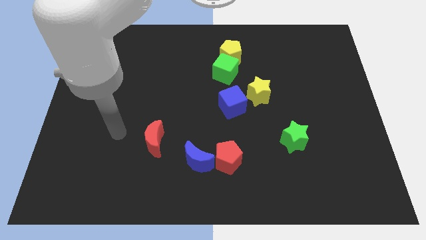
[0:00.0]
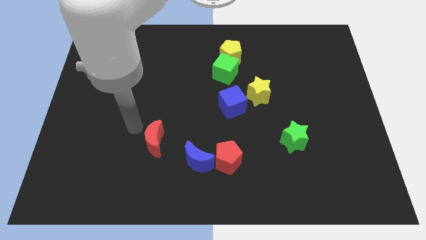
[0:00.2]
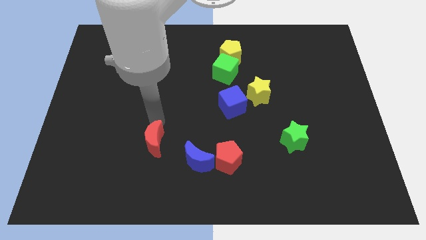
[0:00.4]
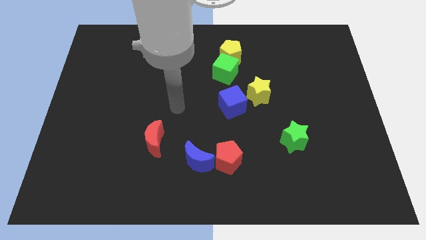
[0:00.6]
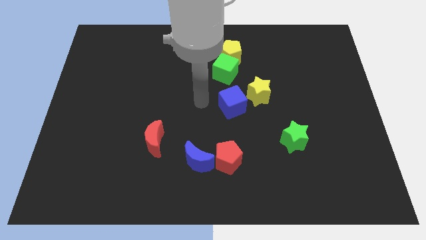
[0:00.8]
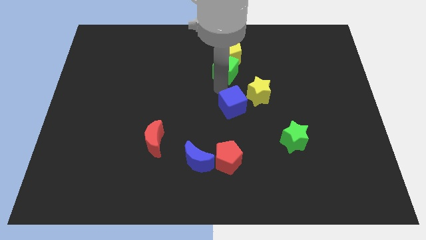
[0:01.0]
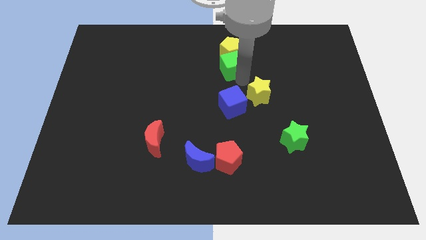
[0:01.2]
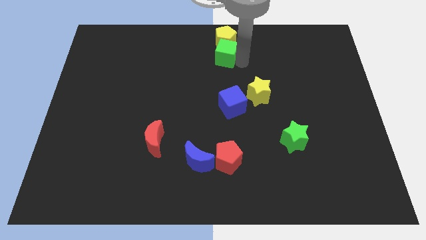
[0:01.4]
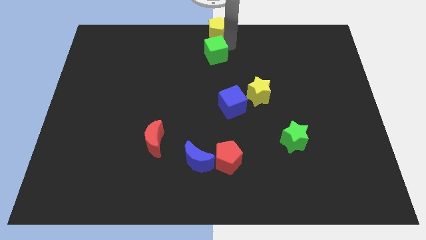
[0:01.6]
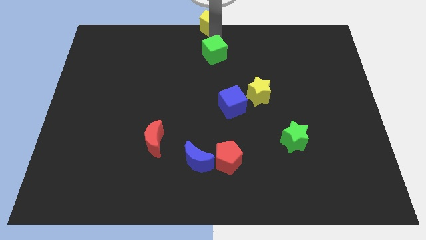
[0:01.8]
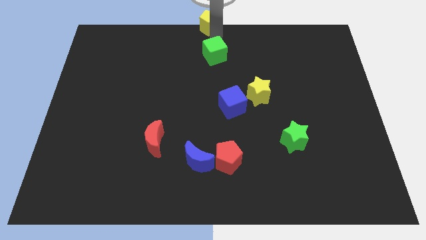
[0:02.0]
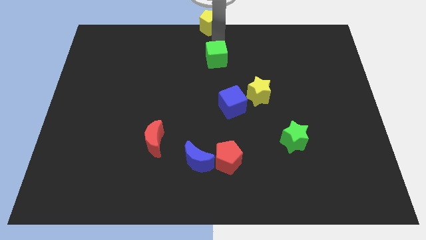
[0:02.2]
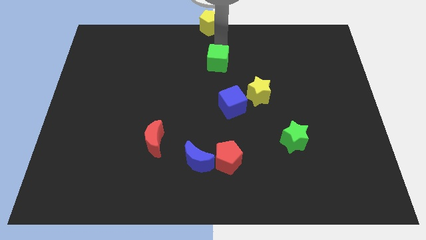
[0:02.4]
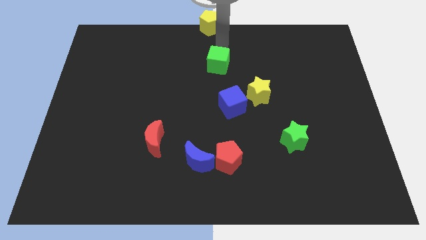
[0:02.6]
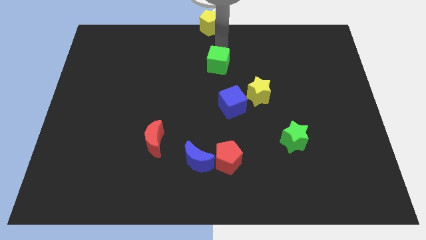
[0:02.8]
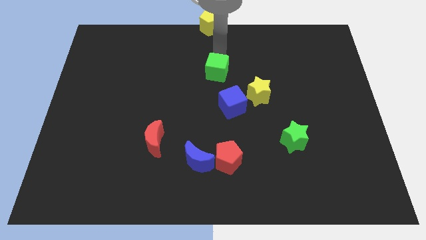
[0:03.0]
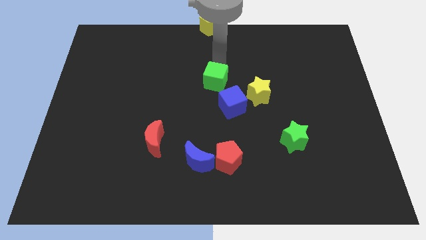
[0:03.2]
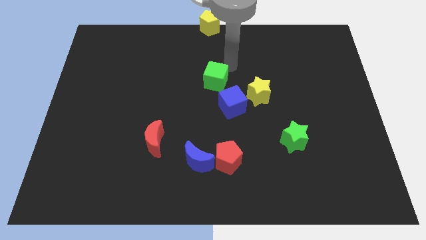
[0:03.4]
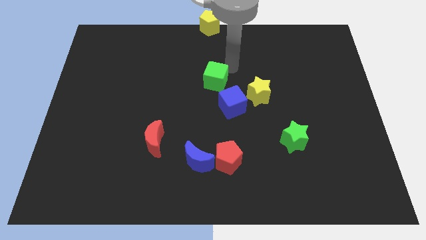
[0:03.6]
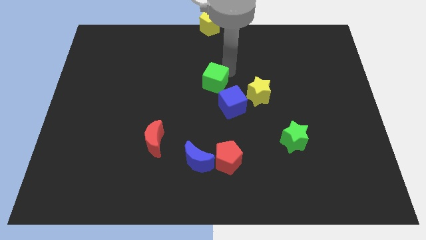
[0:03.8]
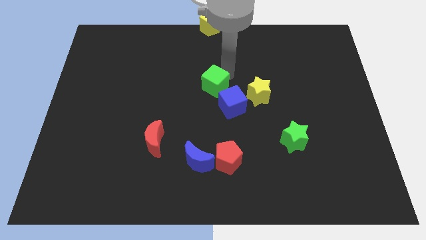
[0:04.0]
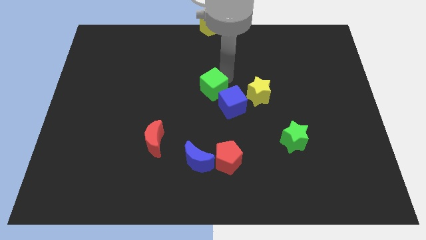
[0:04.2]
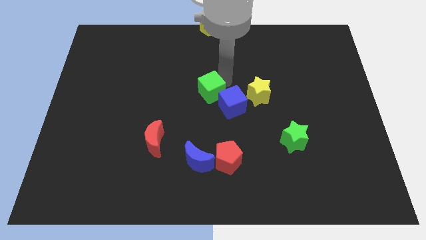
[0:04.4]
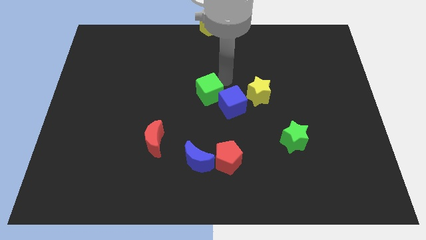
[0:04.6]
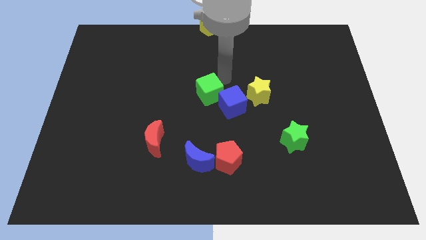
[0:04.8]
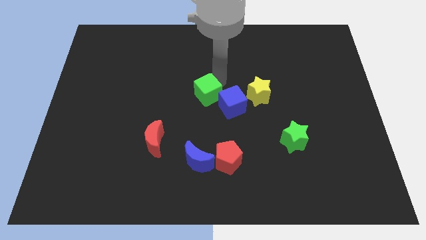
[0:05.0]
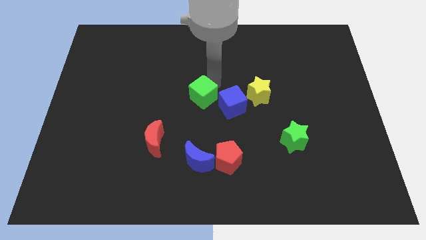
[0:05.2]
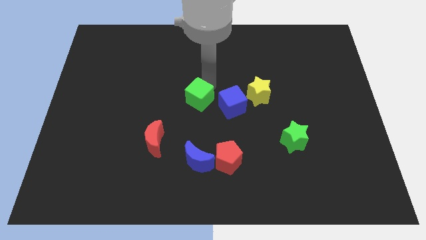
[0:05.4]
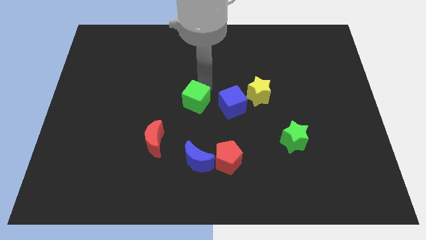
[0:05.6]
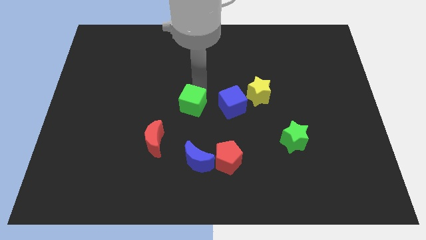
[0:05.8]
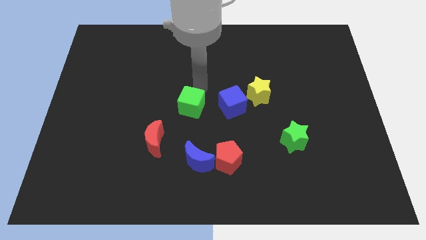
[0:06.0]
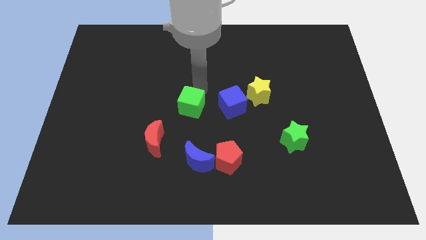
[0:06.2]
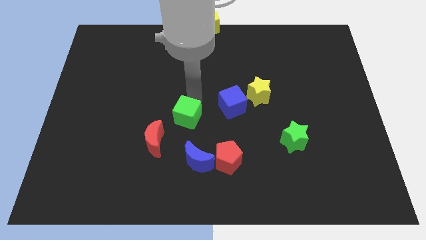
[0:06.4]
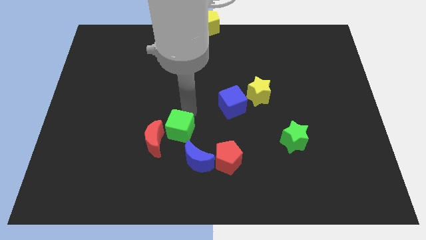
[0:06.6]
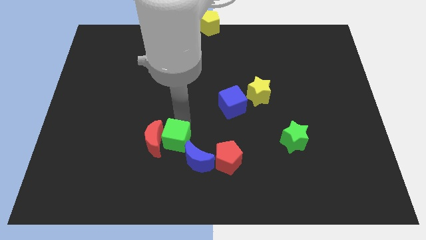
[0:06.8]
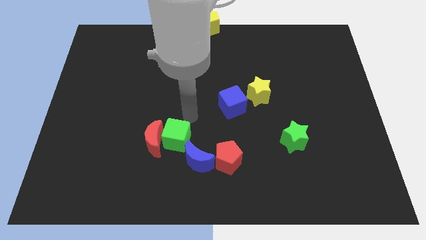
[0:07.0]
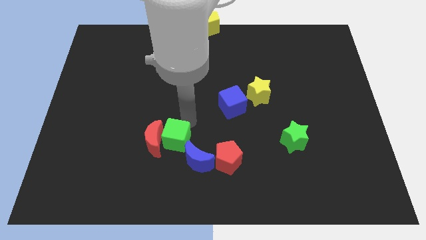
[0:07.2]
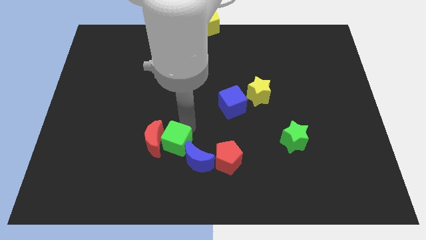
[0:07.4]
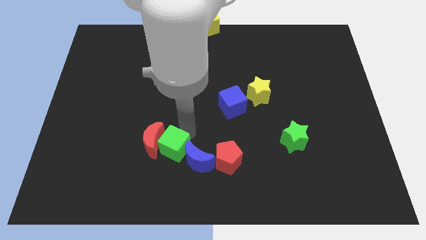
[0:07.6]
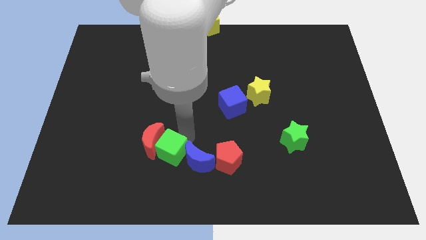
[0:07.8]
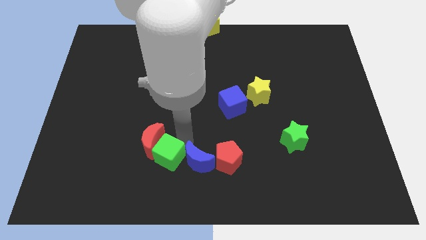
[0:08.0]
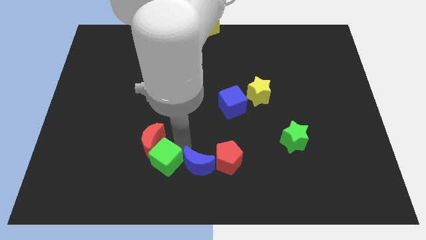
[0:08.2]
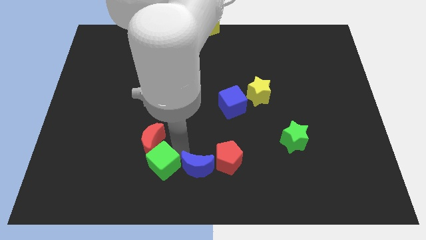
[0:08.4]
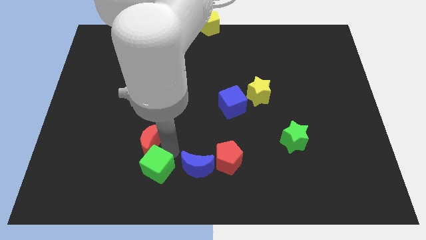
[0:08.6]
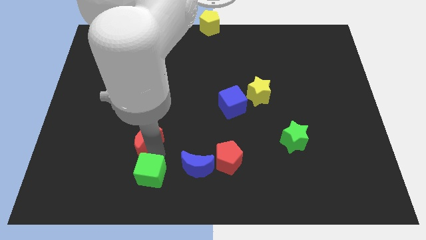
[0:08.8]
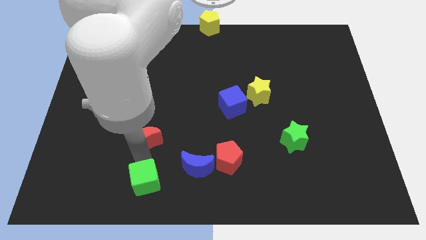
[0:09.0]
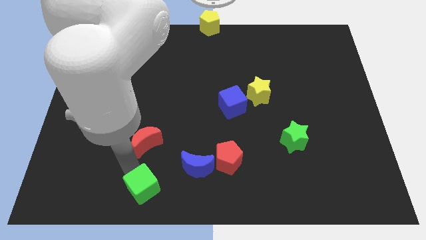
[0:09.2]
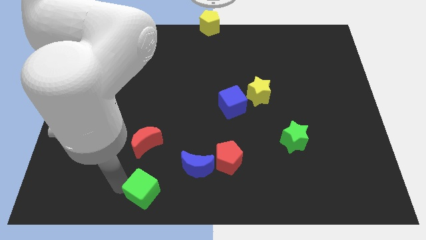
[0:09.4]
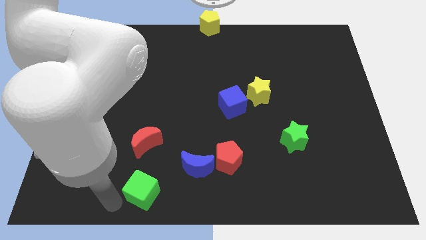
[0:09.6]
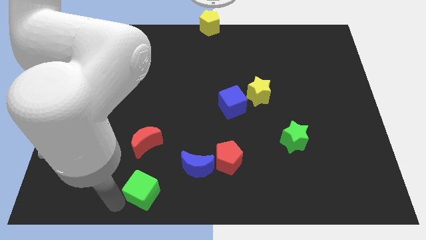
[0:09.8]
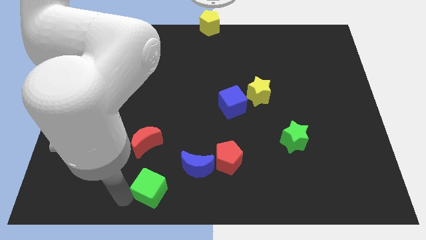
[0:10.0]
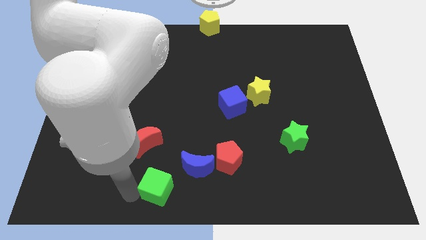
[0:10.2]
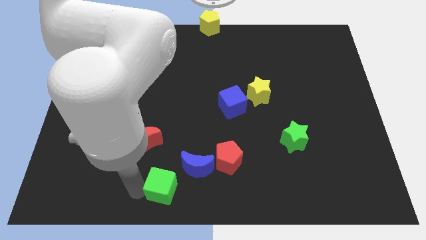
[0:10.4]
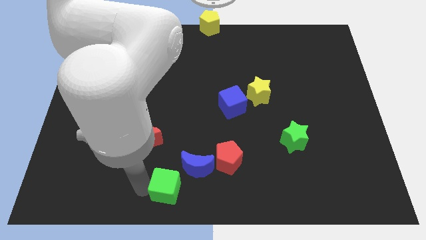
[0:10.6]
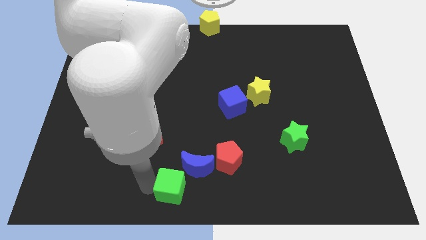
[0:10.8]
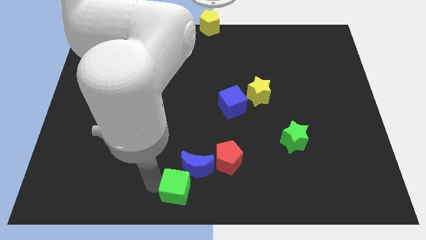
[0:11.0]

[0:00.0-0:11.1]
slide the green cube diagonally down and to the left of the red pentagon

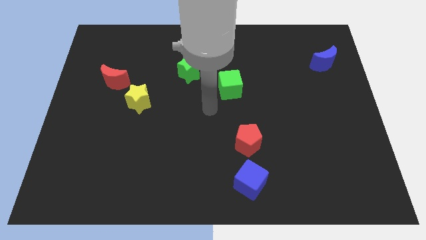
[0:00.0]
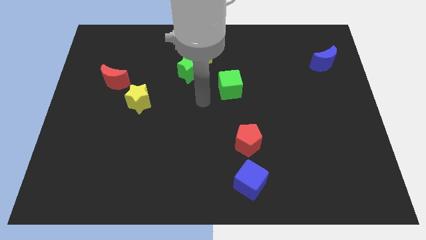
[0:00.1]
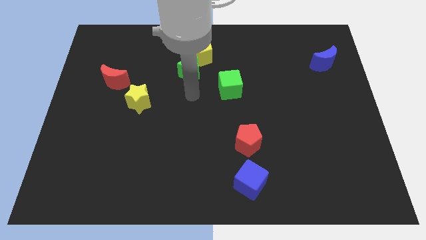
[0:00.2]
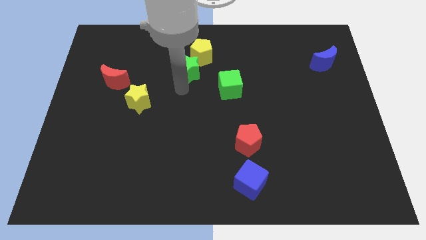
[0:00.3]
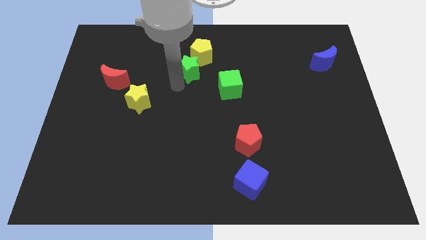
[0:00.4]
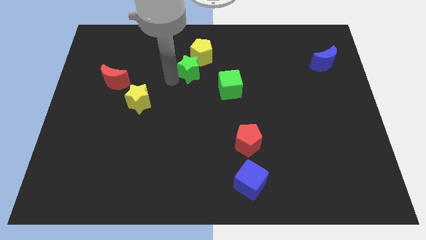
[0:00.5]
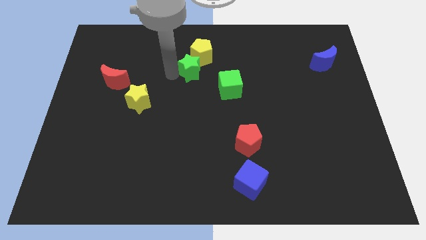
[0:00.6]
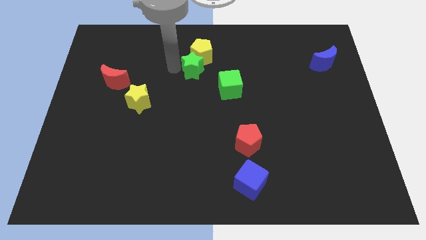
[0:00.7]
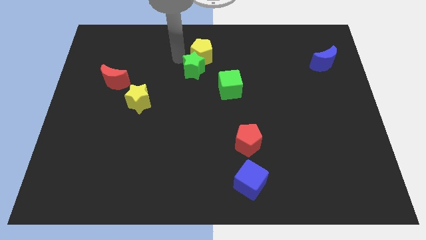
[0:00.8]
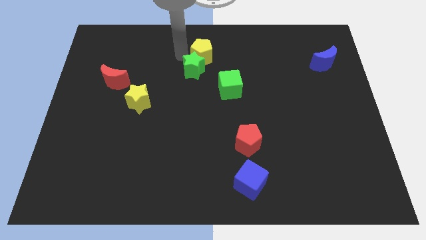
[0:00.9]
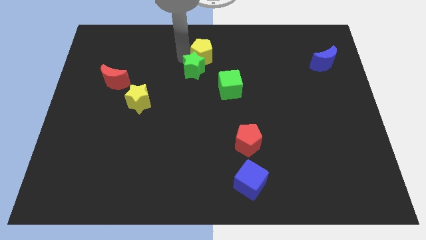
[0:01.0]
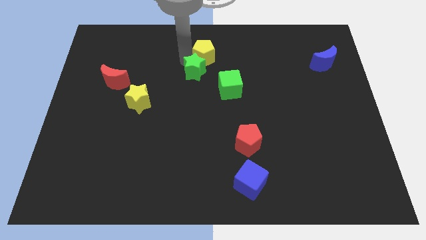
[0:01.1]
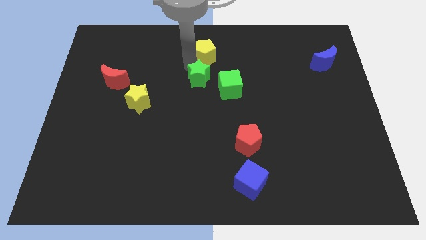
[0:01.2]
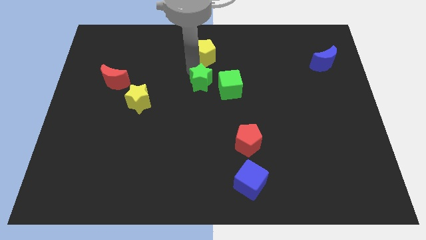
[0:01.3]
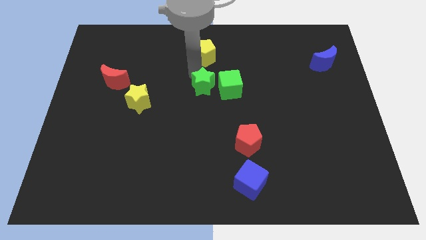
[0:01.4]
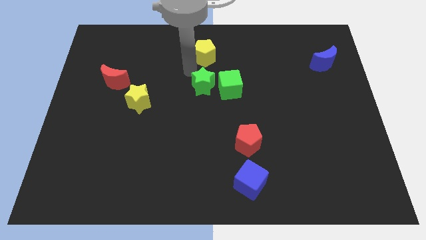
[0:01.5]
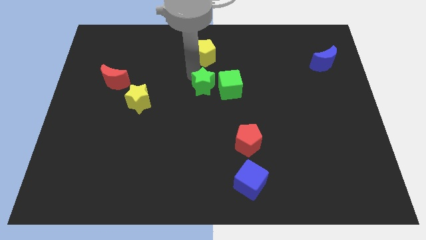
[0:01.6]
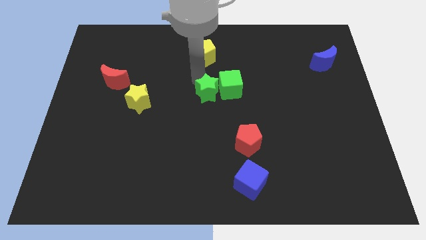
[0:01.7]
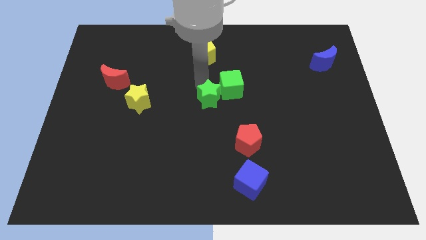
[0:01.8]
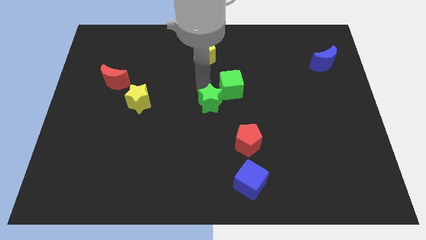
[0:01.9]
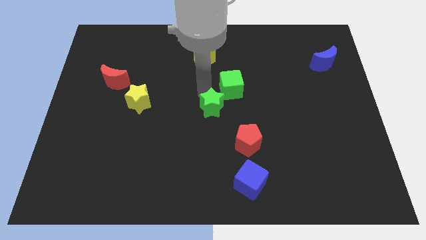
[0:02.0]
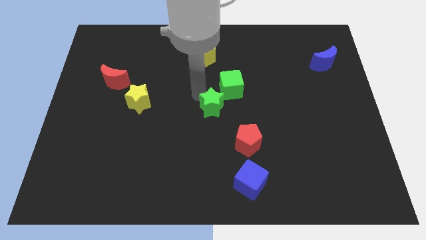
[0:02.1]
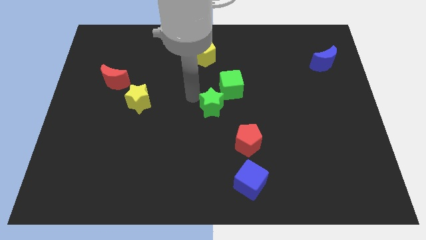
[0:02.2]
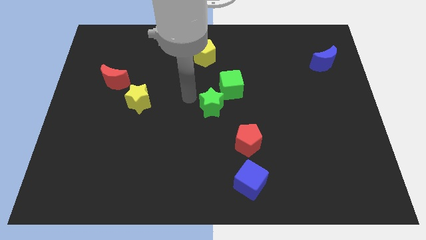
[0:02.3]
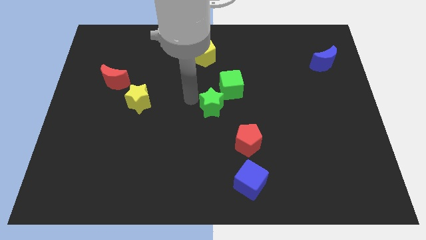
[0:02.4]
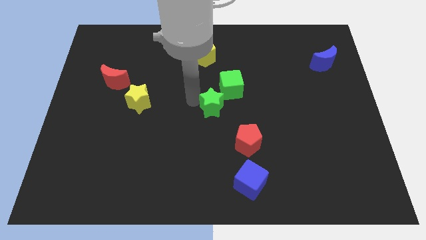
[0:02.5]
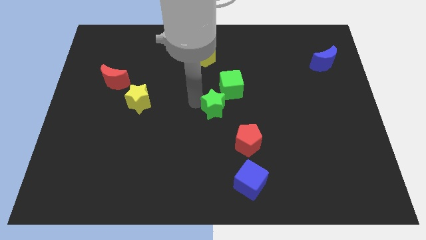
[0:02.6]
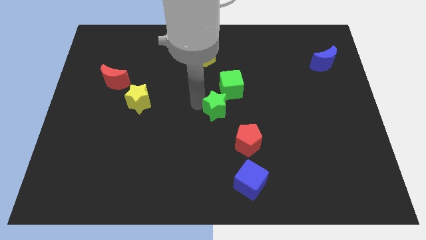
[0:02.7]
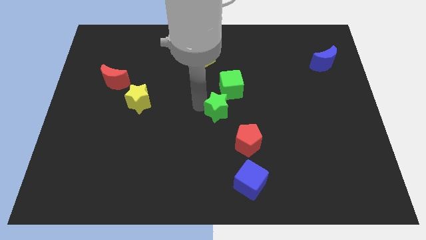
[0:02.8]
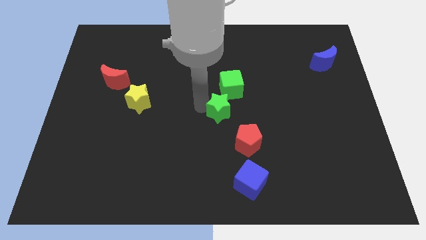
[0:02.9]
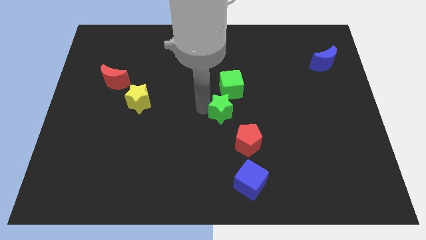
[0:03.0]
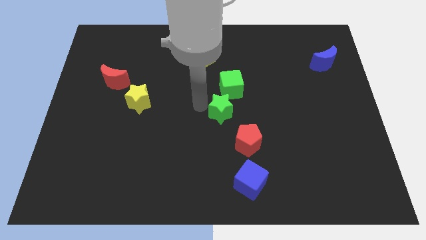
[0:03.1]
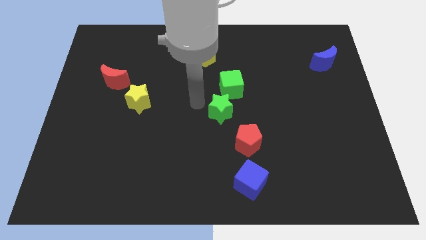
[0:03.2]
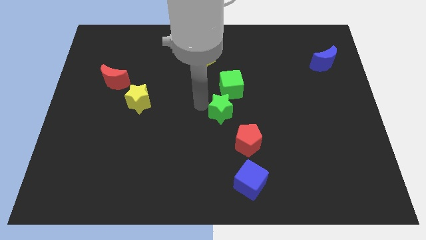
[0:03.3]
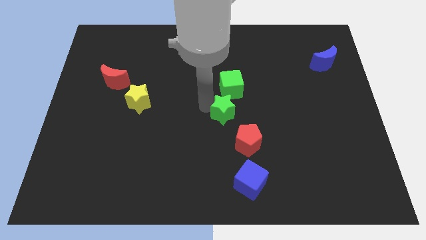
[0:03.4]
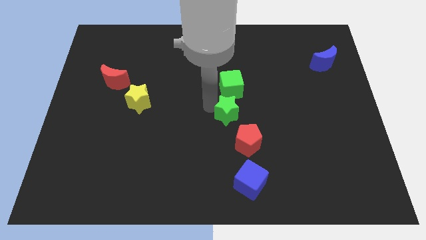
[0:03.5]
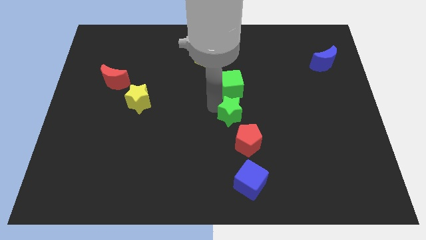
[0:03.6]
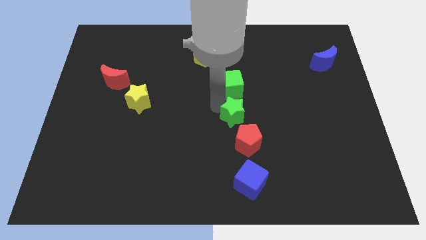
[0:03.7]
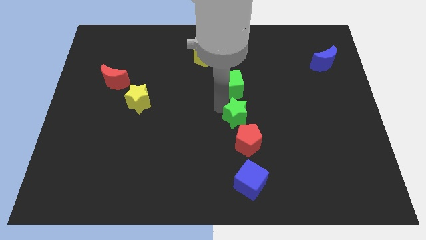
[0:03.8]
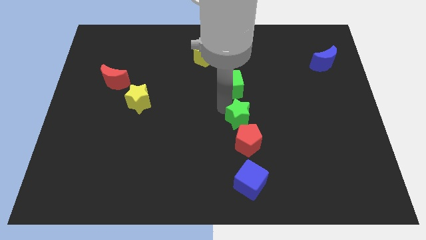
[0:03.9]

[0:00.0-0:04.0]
move the green star to the top side of the blue cube
